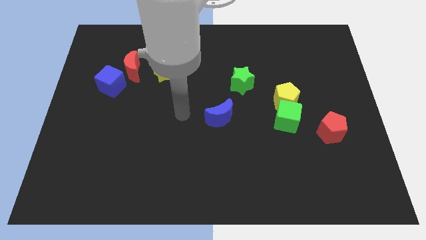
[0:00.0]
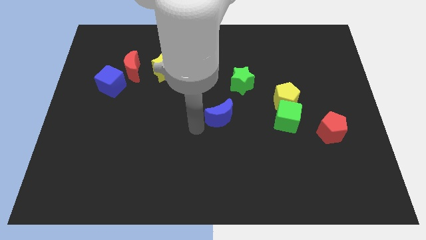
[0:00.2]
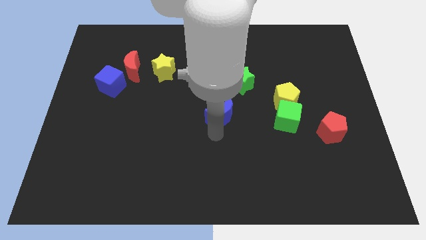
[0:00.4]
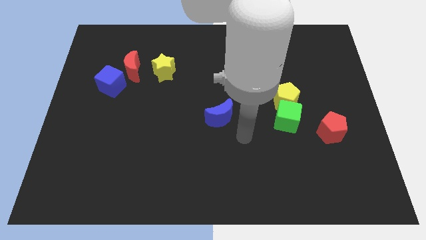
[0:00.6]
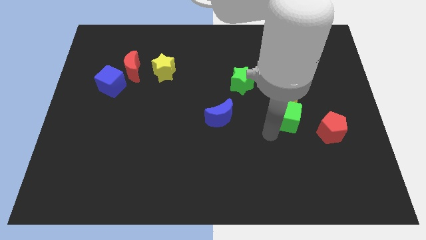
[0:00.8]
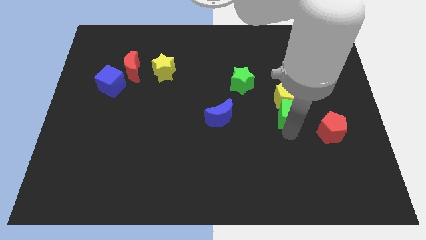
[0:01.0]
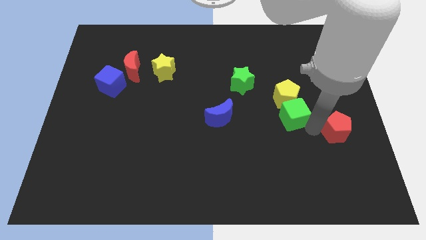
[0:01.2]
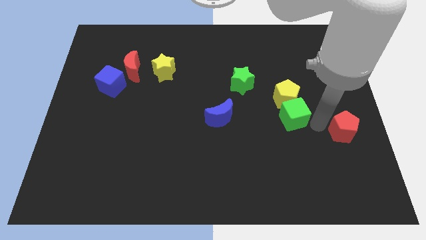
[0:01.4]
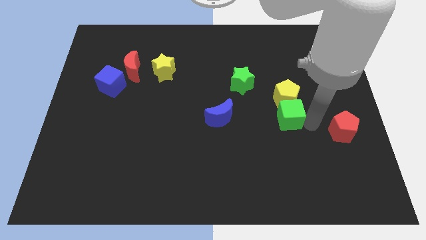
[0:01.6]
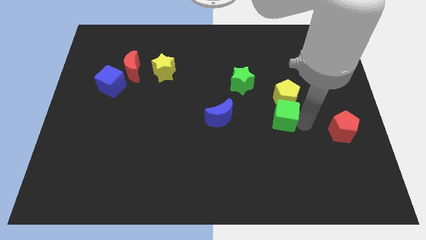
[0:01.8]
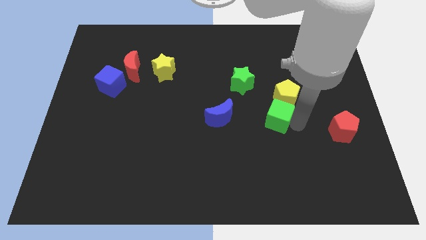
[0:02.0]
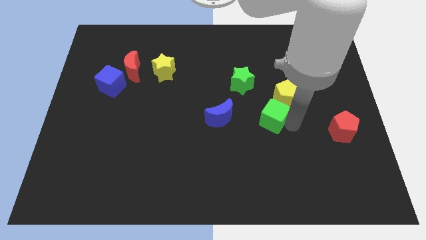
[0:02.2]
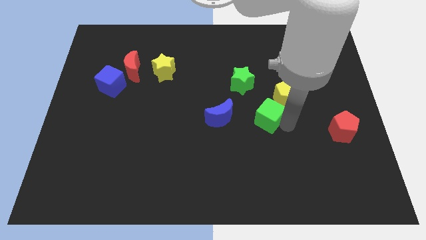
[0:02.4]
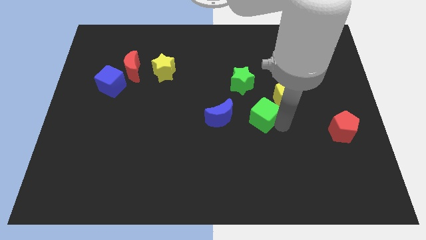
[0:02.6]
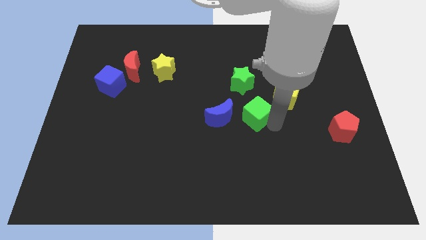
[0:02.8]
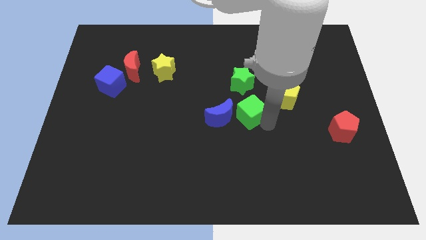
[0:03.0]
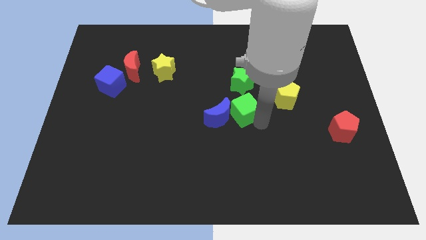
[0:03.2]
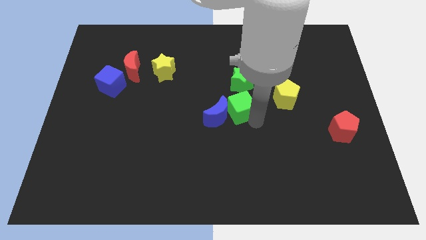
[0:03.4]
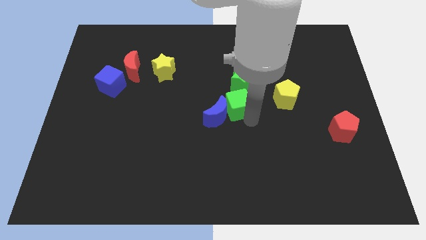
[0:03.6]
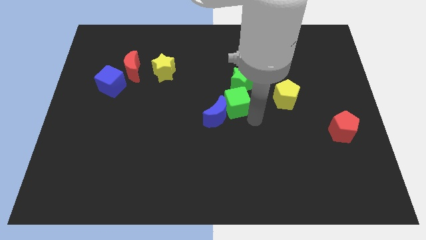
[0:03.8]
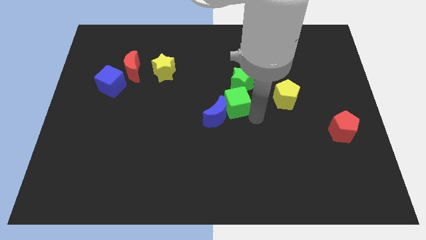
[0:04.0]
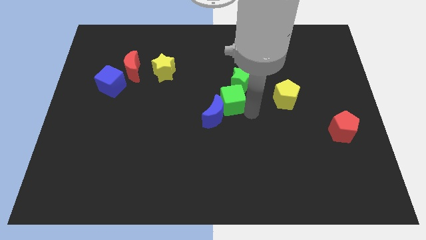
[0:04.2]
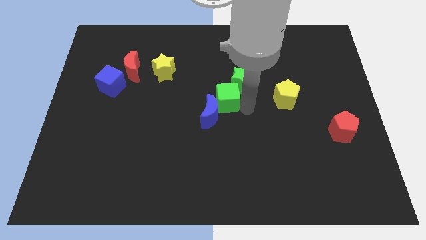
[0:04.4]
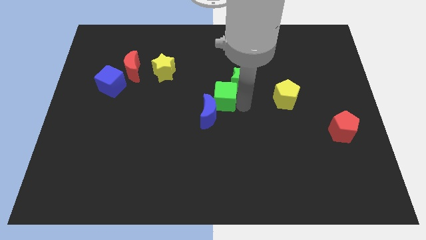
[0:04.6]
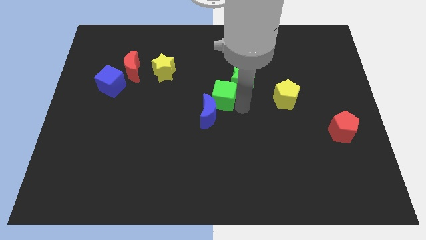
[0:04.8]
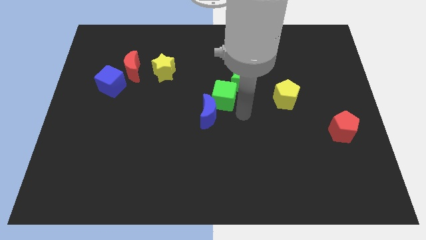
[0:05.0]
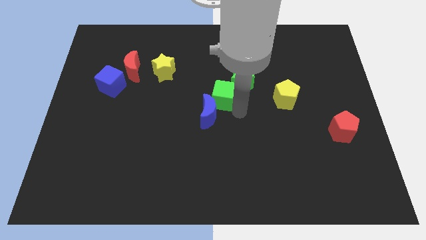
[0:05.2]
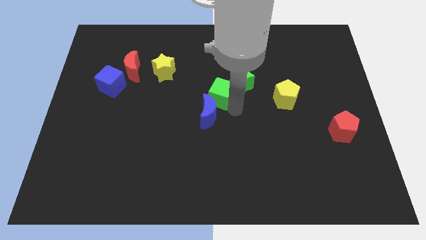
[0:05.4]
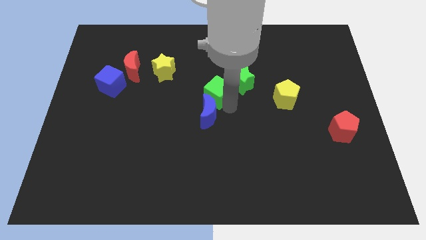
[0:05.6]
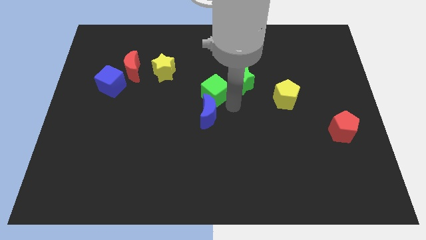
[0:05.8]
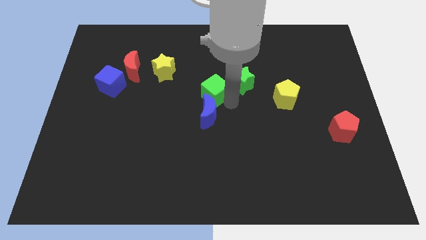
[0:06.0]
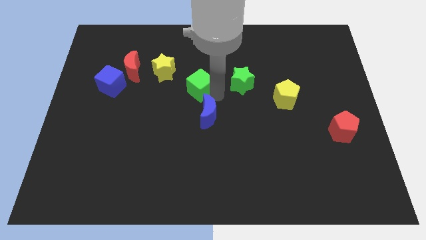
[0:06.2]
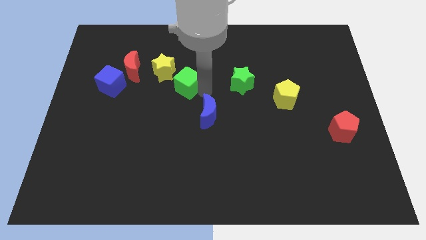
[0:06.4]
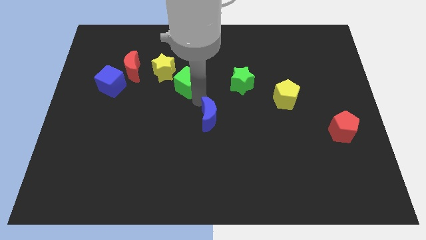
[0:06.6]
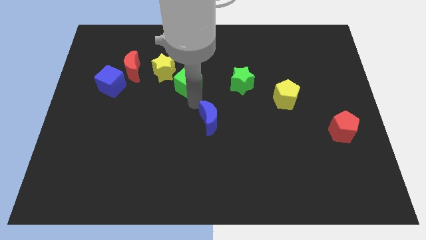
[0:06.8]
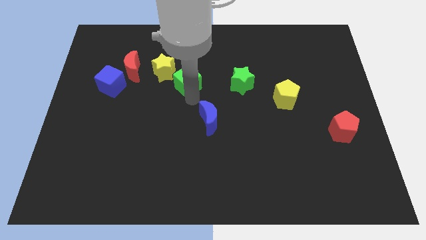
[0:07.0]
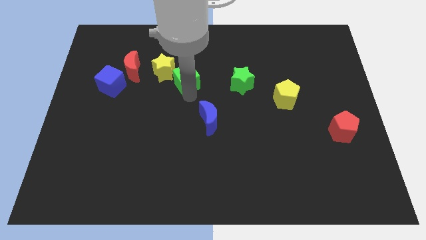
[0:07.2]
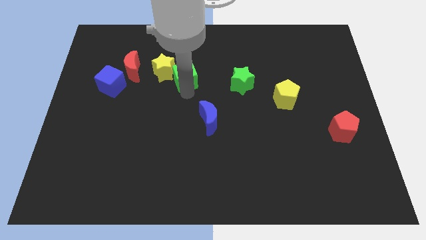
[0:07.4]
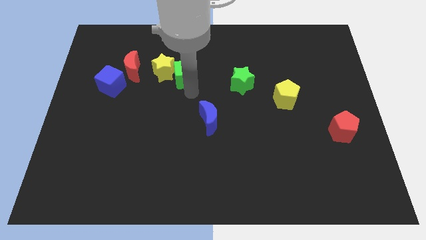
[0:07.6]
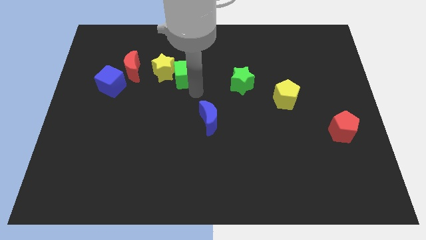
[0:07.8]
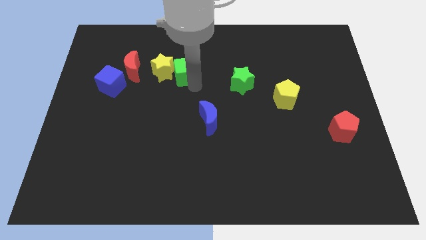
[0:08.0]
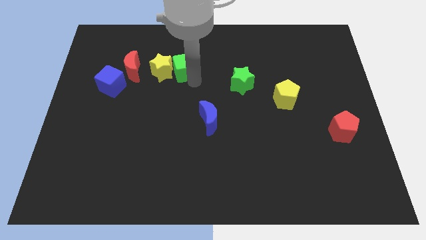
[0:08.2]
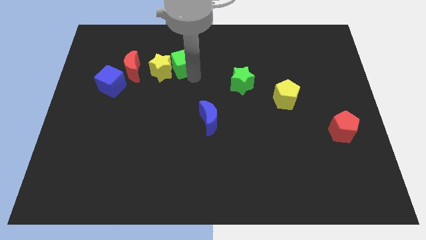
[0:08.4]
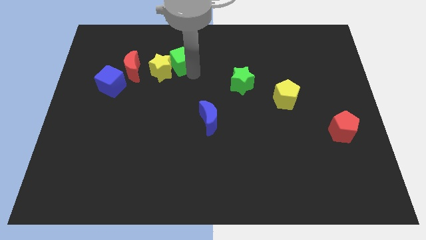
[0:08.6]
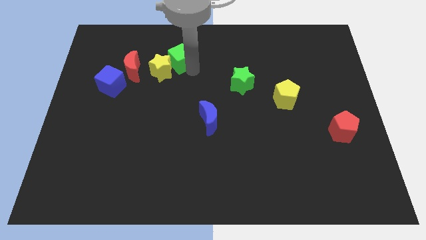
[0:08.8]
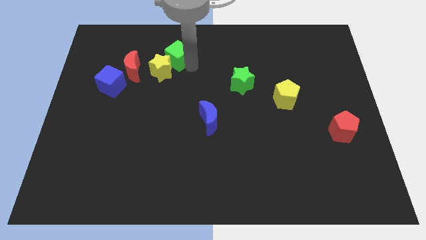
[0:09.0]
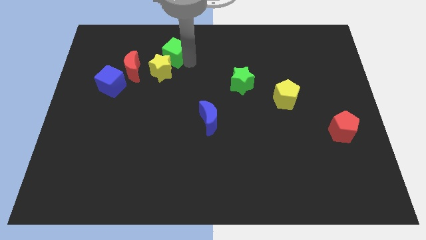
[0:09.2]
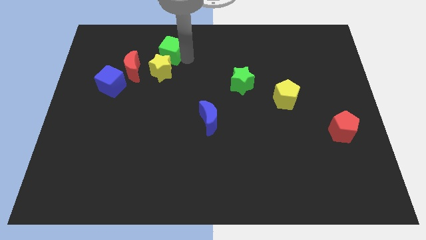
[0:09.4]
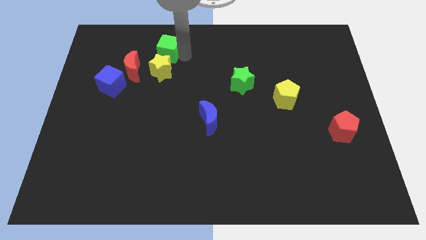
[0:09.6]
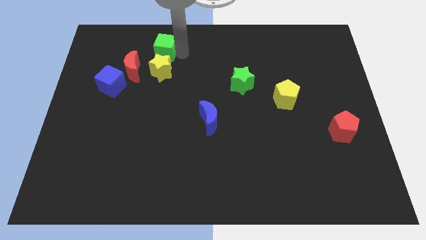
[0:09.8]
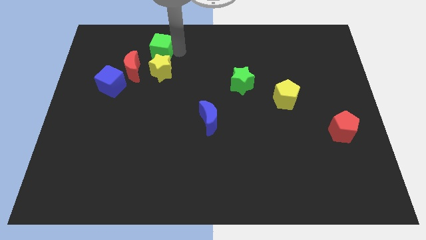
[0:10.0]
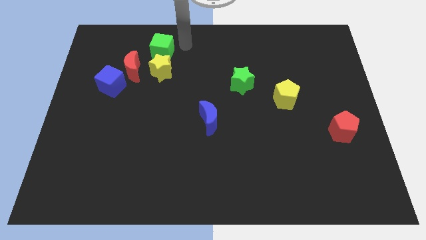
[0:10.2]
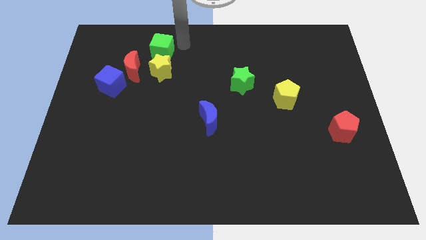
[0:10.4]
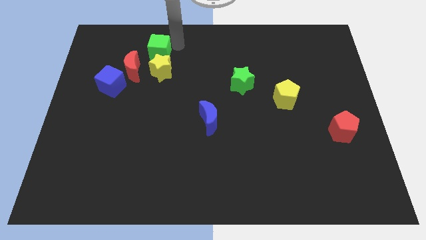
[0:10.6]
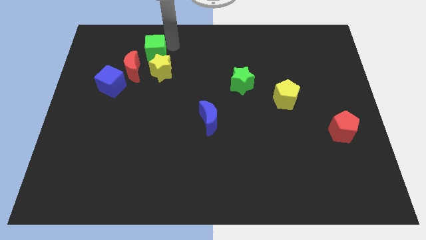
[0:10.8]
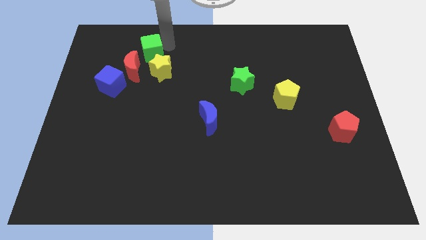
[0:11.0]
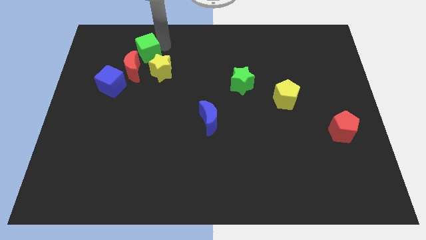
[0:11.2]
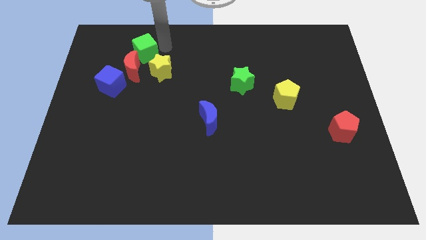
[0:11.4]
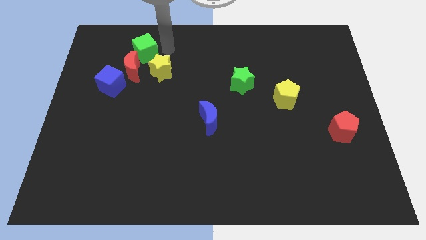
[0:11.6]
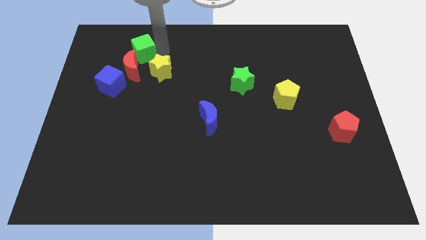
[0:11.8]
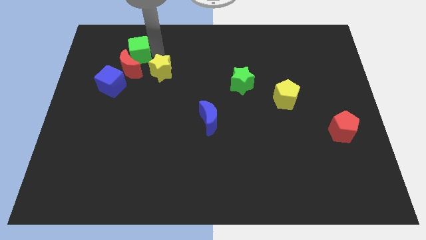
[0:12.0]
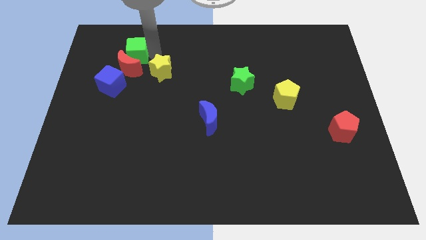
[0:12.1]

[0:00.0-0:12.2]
move the green cube to the top side of the blue cube
